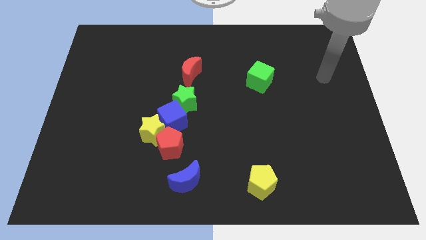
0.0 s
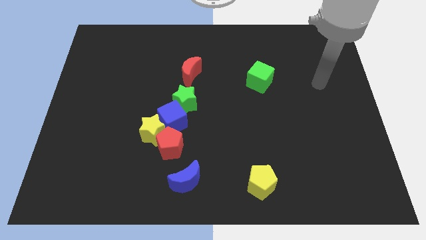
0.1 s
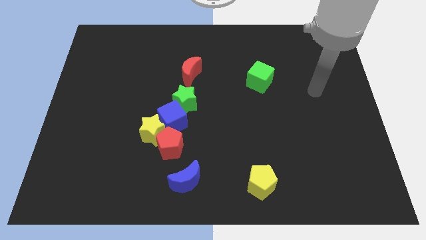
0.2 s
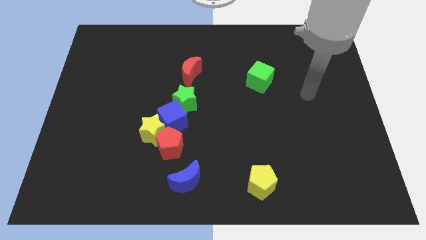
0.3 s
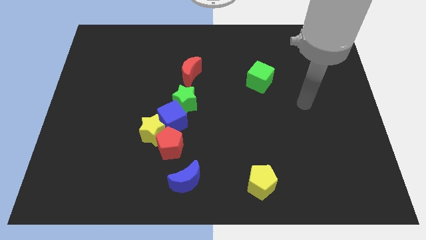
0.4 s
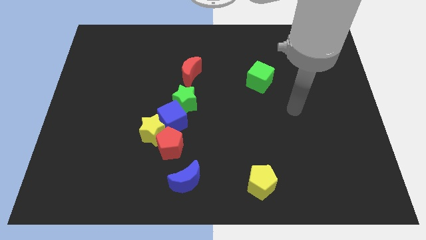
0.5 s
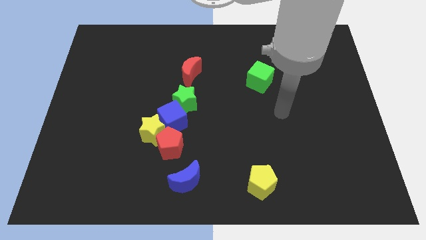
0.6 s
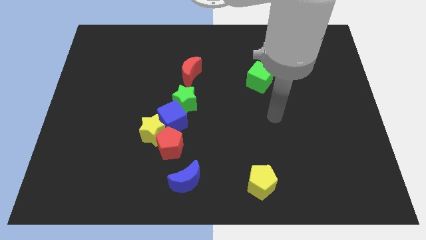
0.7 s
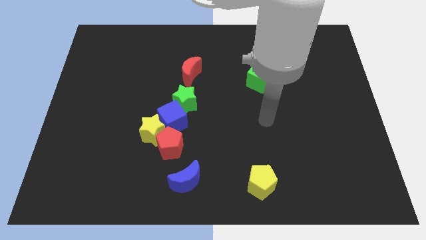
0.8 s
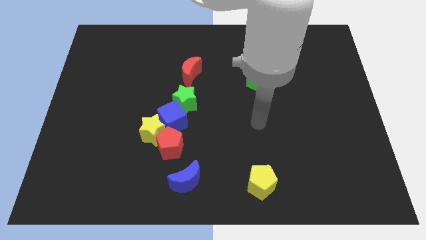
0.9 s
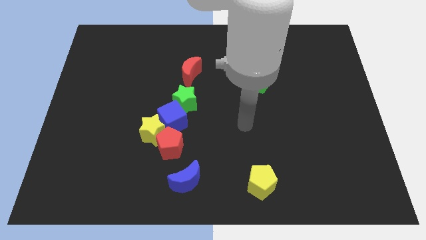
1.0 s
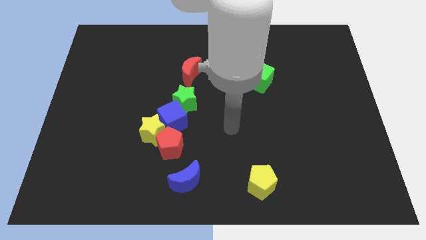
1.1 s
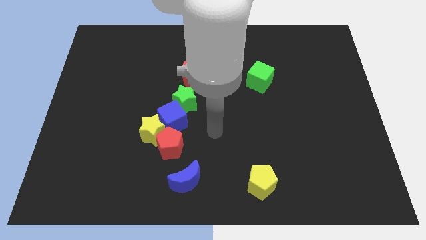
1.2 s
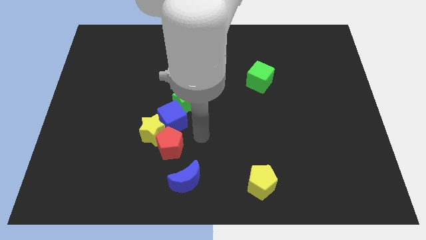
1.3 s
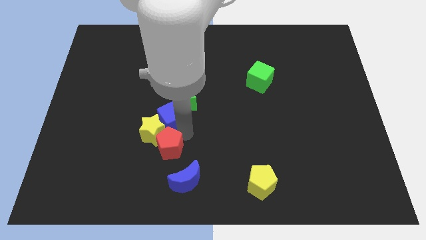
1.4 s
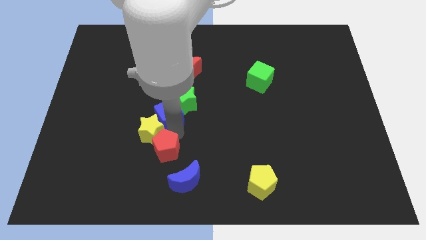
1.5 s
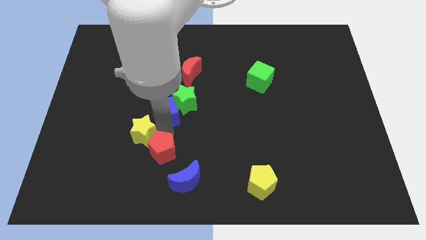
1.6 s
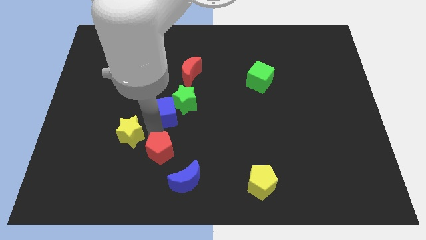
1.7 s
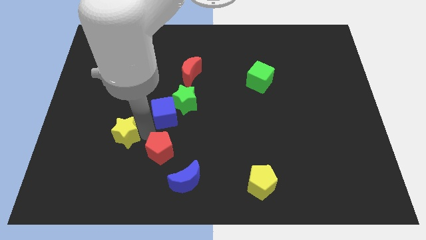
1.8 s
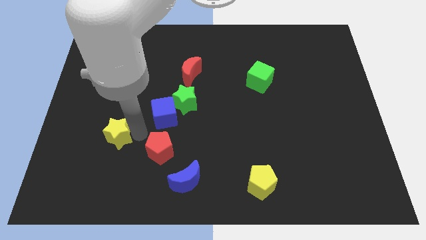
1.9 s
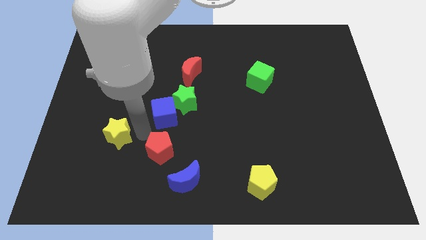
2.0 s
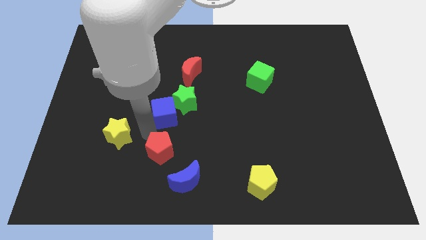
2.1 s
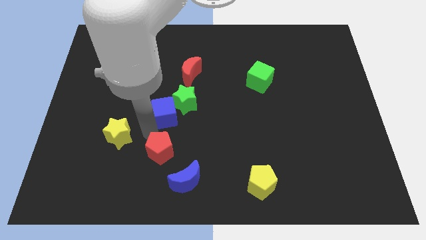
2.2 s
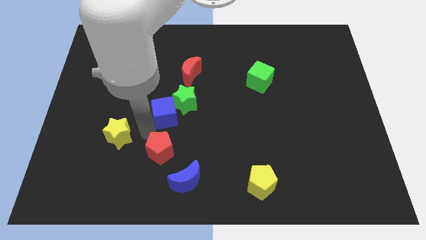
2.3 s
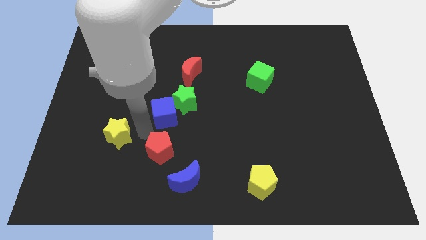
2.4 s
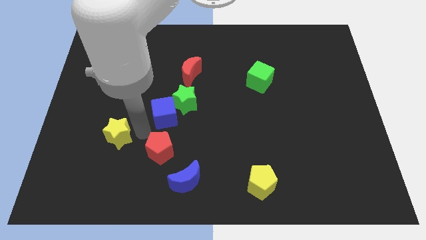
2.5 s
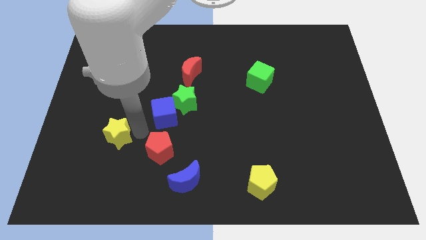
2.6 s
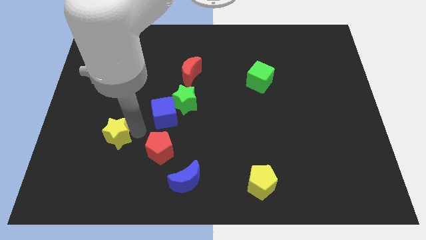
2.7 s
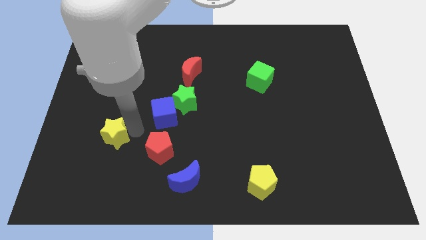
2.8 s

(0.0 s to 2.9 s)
move the yellow star away from the blue cube and red pentagon

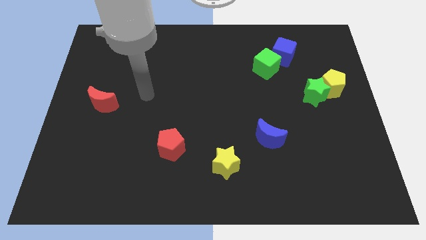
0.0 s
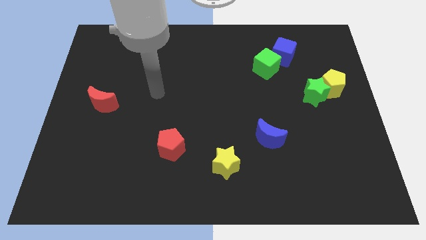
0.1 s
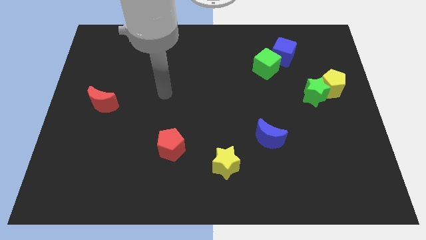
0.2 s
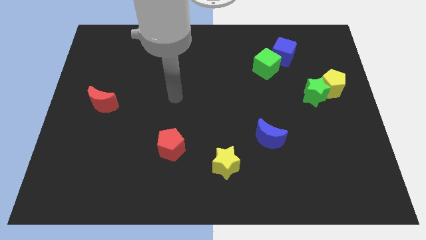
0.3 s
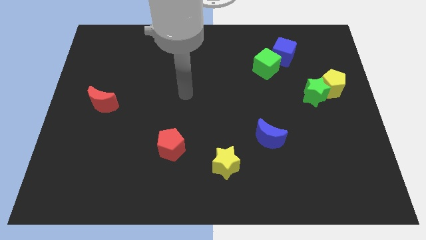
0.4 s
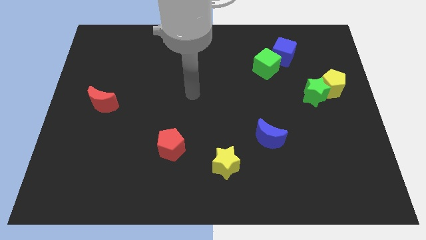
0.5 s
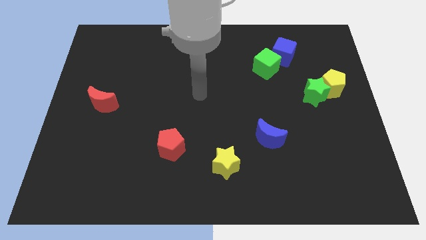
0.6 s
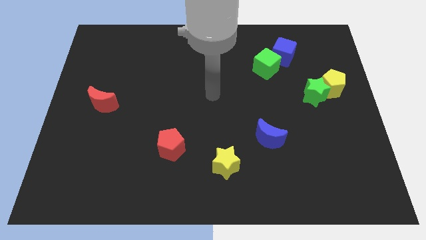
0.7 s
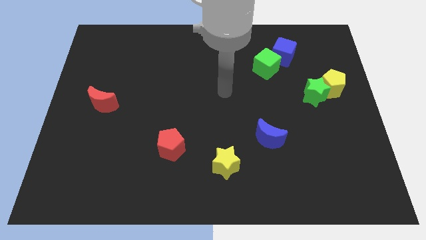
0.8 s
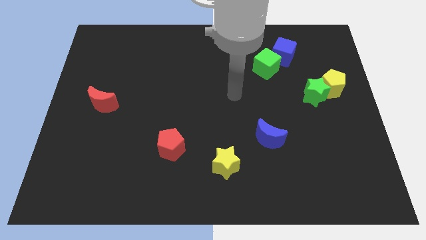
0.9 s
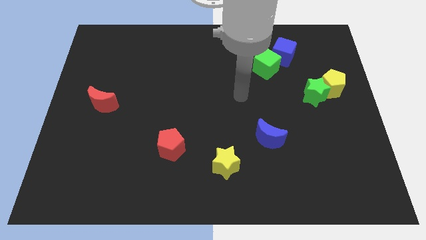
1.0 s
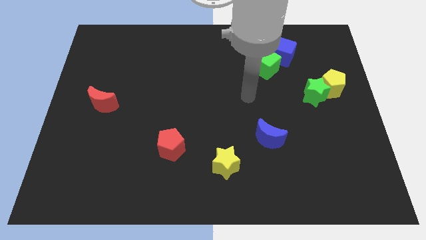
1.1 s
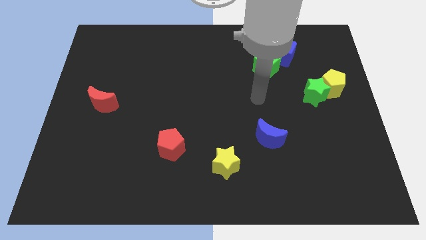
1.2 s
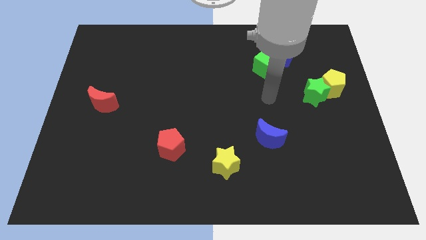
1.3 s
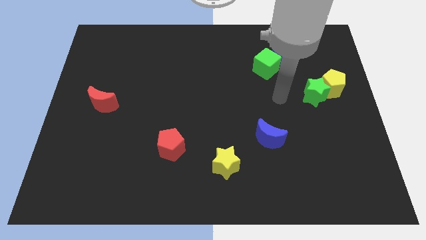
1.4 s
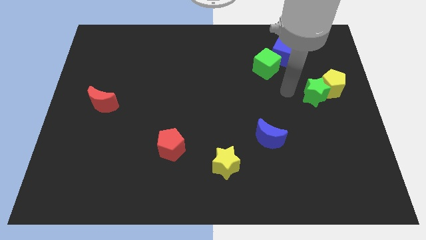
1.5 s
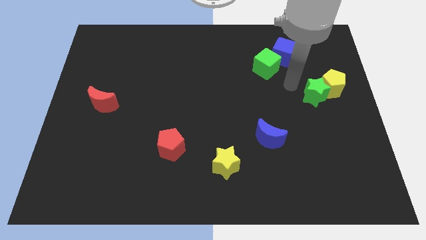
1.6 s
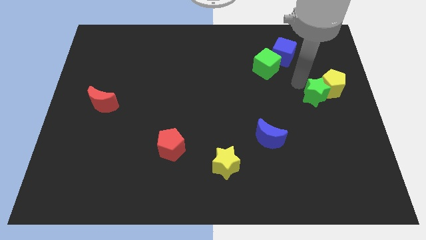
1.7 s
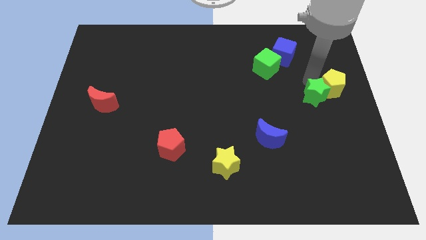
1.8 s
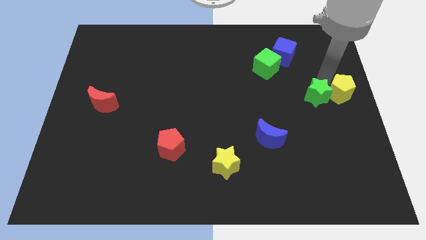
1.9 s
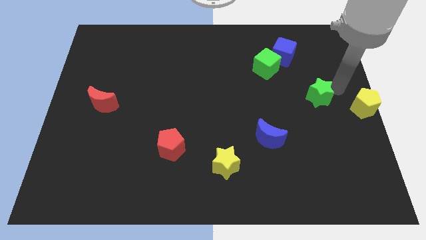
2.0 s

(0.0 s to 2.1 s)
move the green star away from the yellow pentagon

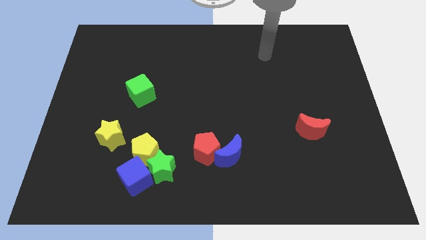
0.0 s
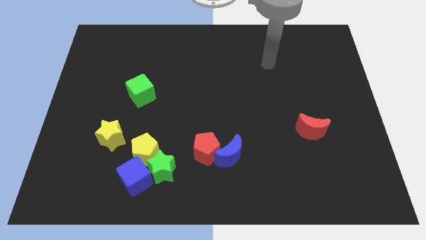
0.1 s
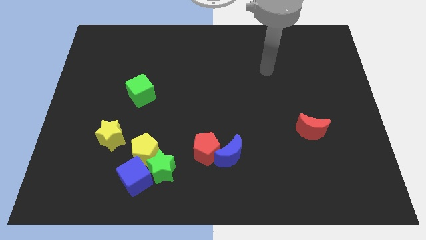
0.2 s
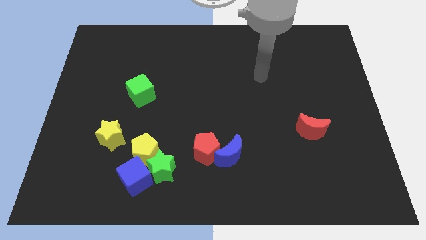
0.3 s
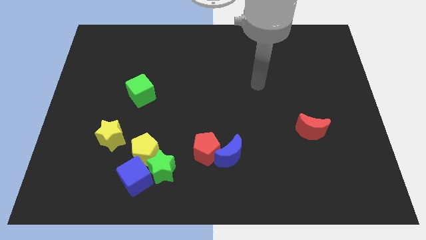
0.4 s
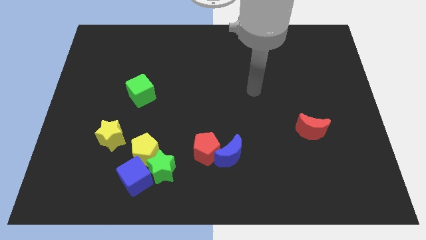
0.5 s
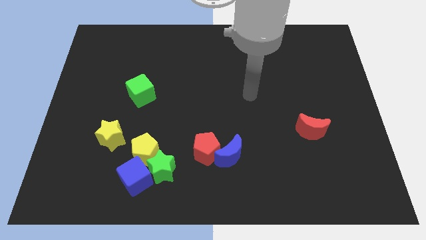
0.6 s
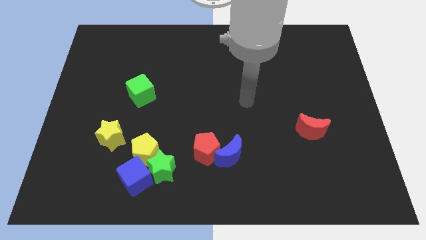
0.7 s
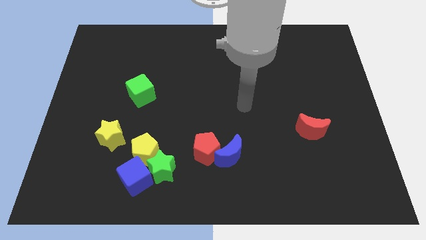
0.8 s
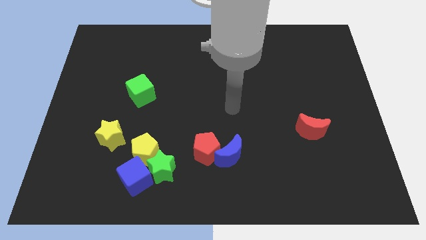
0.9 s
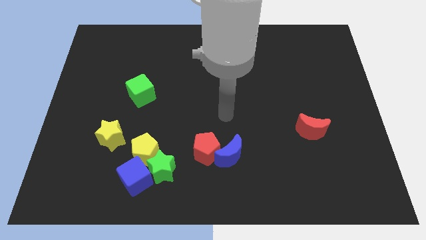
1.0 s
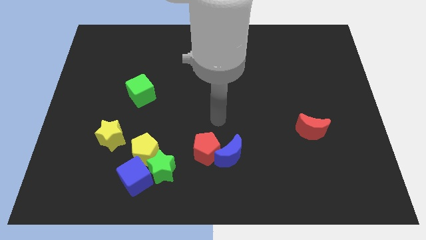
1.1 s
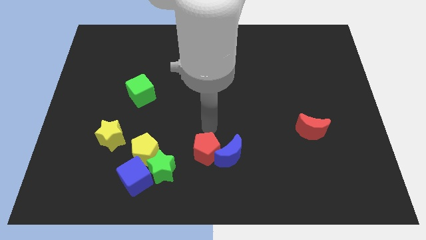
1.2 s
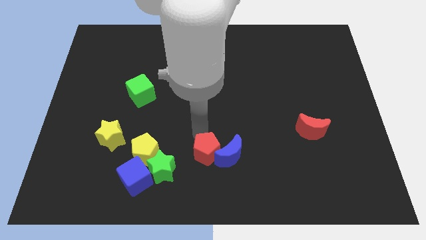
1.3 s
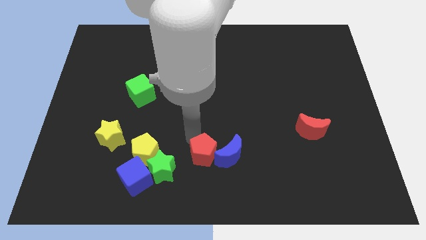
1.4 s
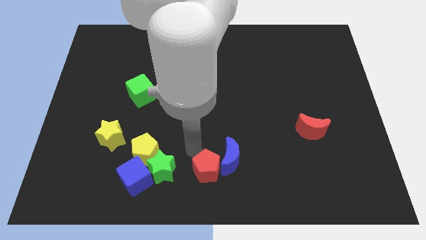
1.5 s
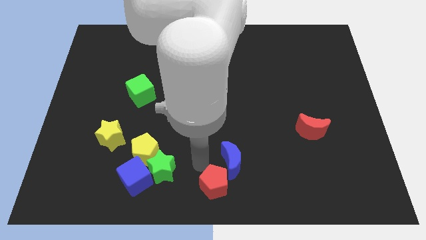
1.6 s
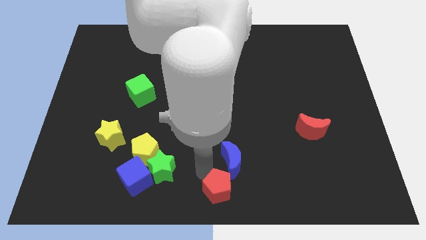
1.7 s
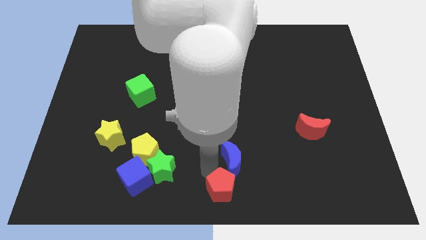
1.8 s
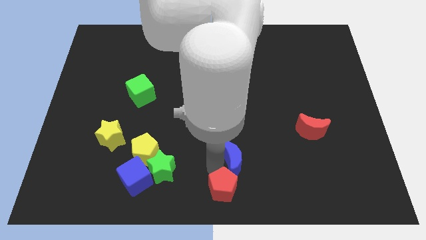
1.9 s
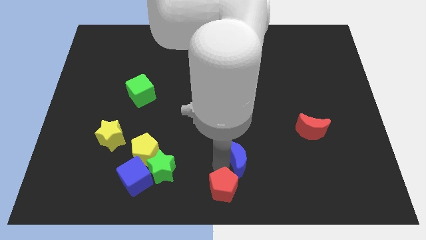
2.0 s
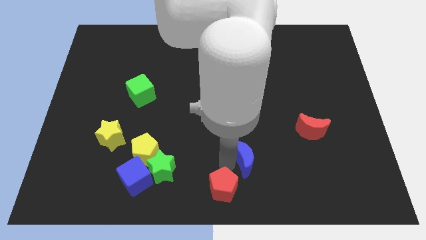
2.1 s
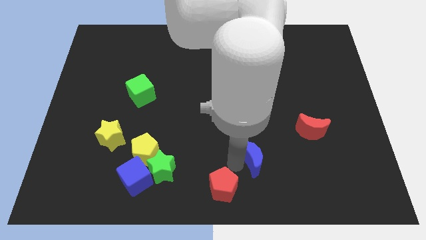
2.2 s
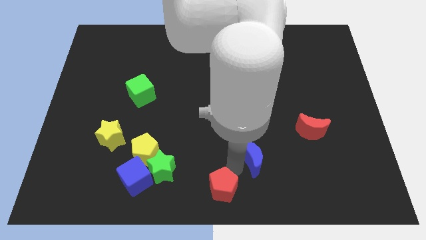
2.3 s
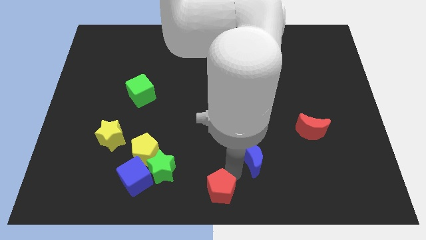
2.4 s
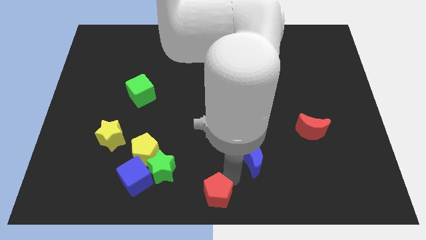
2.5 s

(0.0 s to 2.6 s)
separate the blue moon from the red pentagon

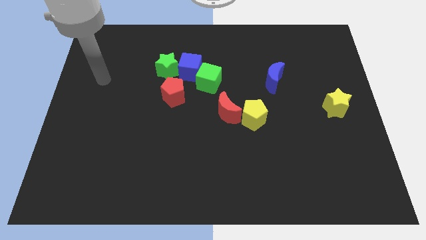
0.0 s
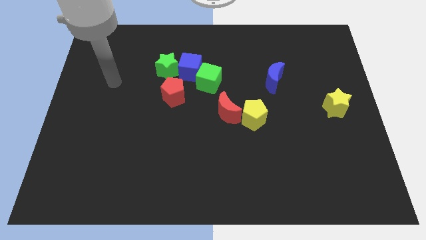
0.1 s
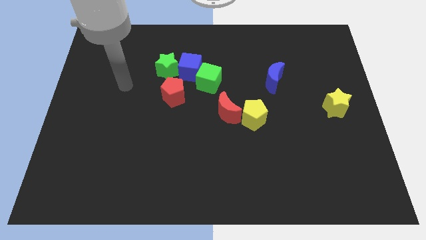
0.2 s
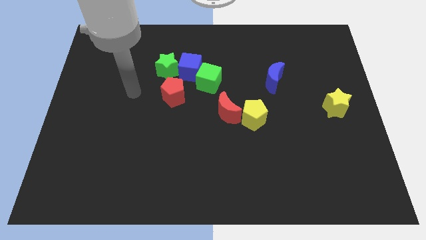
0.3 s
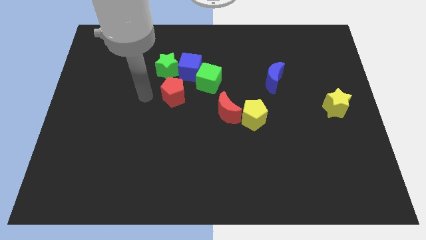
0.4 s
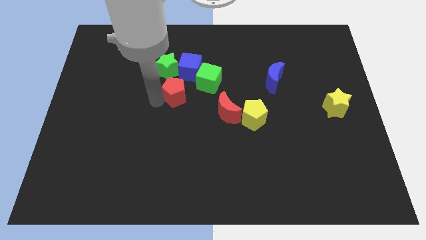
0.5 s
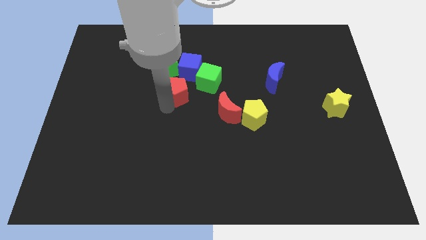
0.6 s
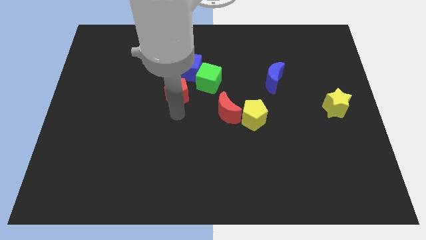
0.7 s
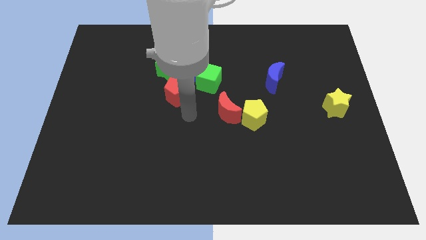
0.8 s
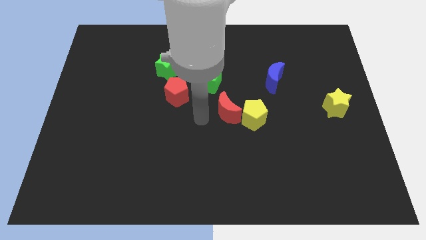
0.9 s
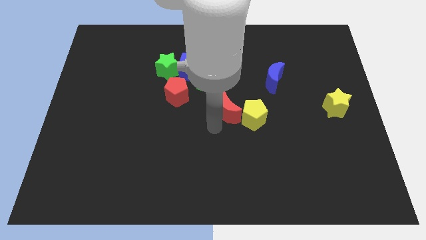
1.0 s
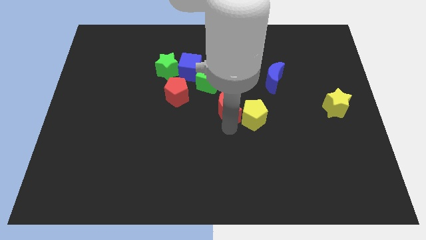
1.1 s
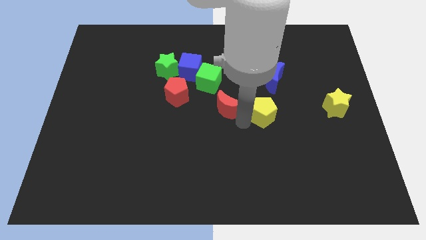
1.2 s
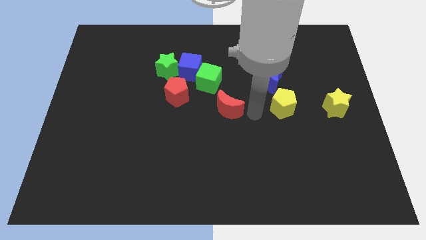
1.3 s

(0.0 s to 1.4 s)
pull the red moon apart from the yellow pentagon

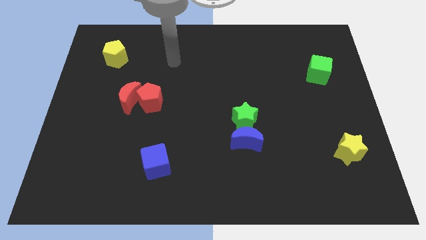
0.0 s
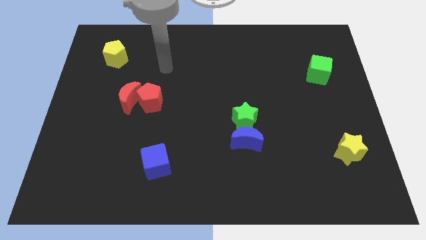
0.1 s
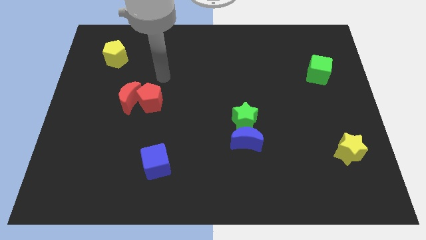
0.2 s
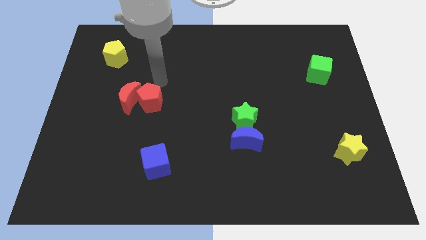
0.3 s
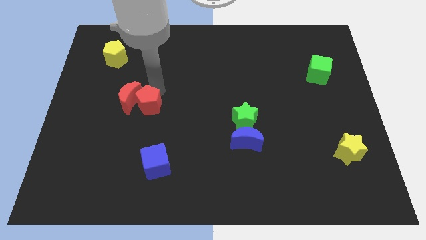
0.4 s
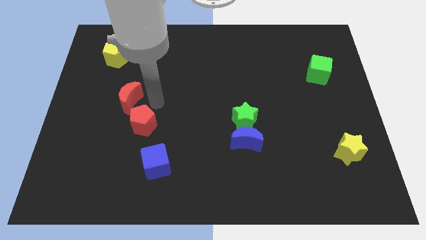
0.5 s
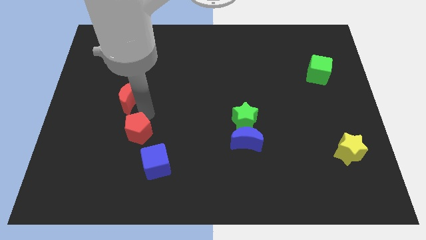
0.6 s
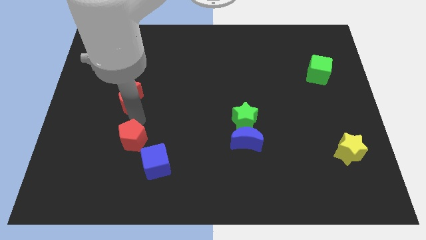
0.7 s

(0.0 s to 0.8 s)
pull the red moon apart from the red pentagon
